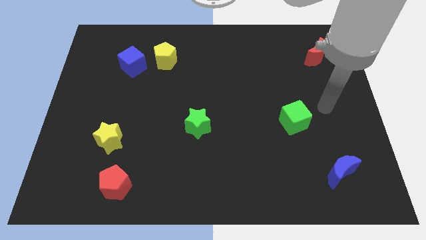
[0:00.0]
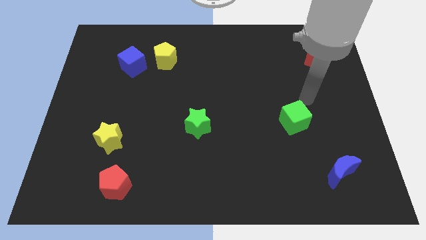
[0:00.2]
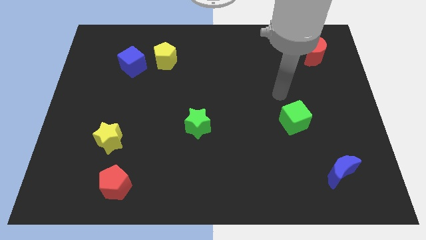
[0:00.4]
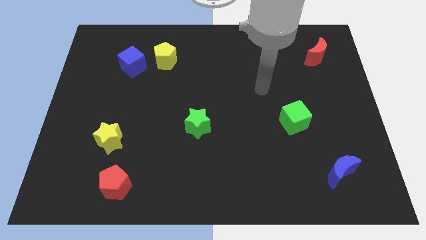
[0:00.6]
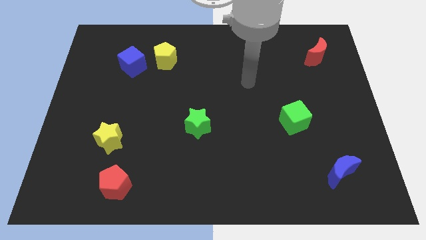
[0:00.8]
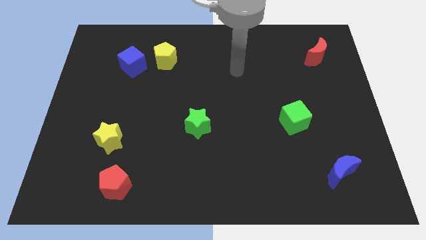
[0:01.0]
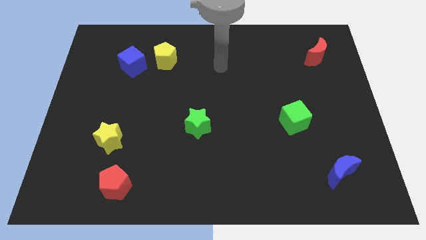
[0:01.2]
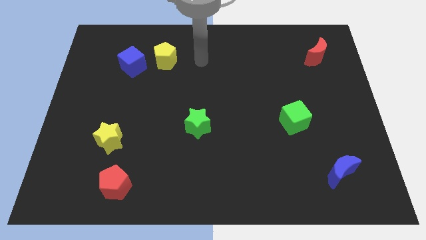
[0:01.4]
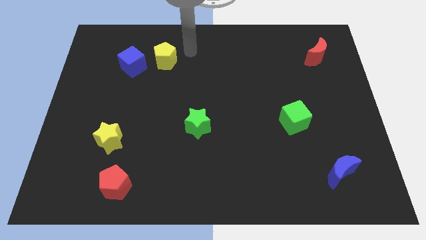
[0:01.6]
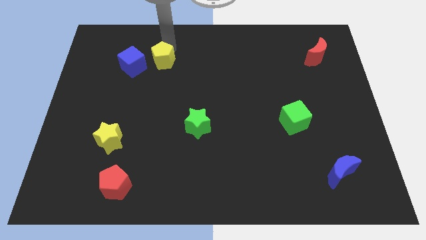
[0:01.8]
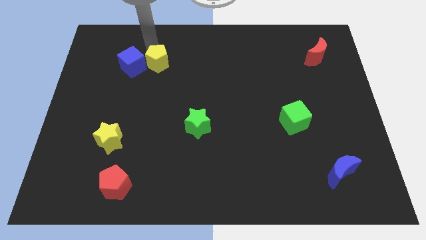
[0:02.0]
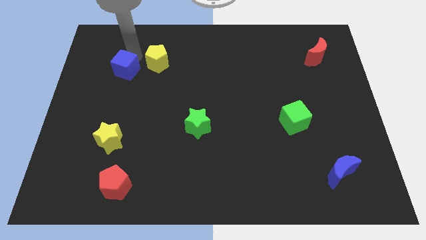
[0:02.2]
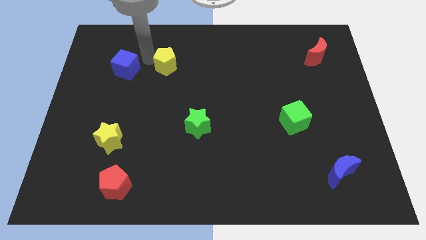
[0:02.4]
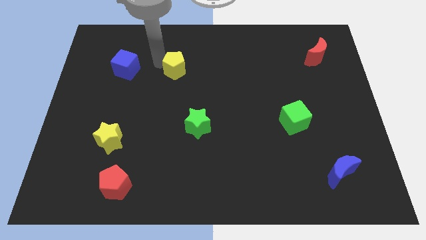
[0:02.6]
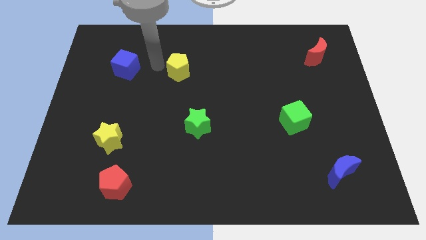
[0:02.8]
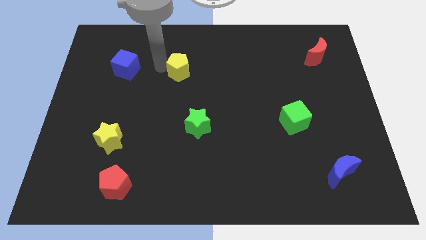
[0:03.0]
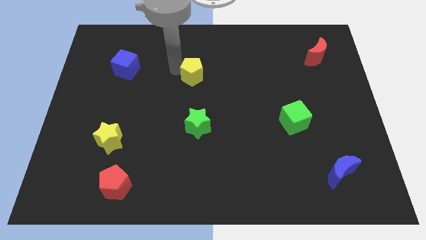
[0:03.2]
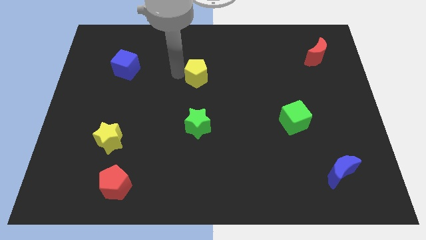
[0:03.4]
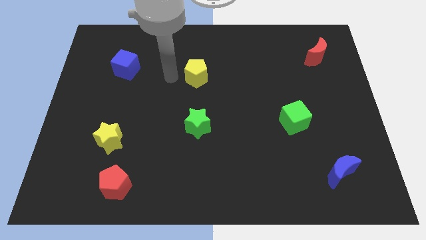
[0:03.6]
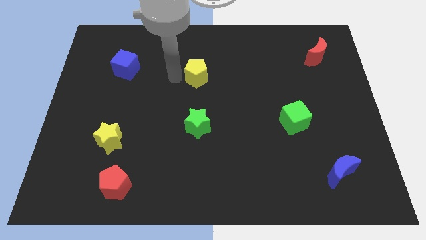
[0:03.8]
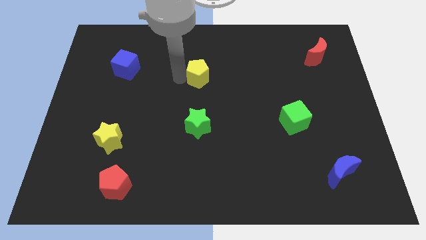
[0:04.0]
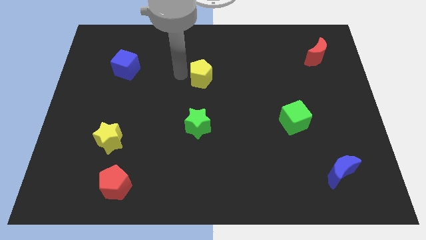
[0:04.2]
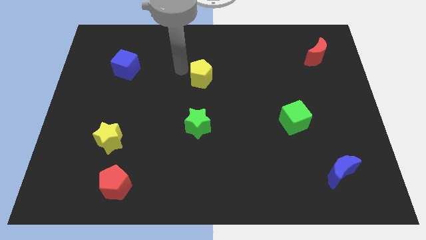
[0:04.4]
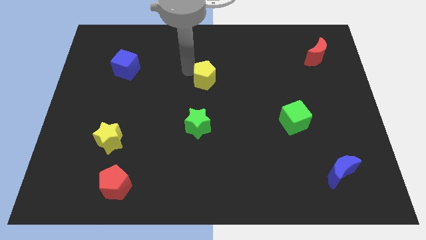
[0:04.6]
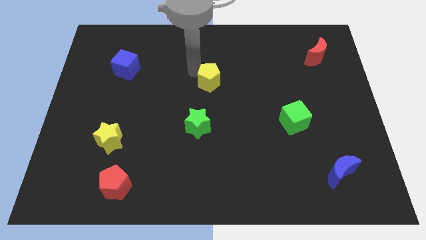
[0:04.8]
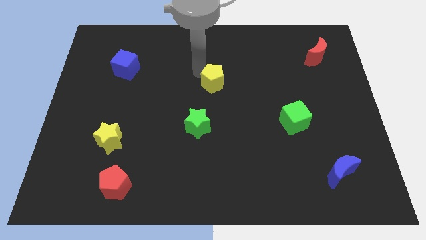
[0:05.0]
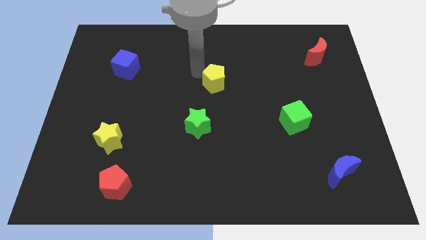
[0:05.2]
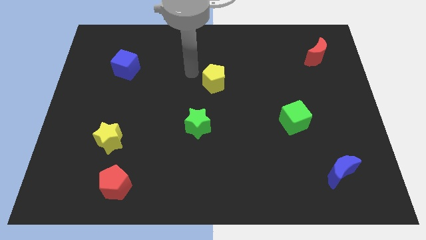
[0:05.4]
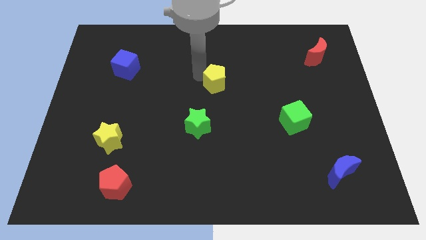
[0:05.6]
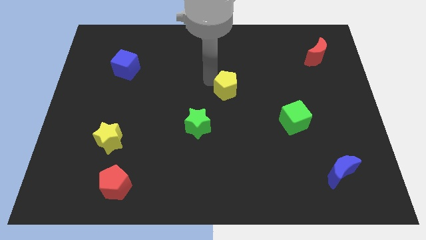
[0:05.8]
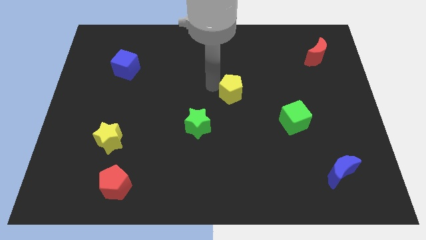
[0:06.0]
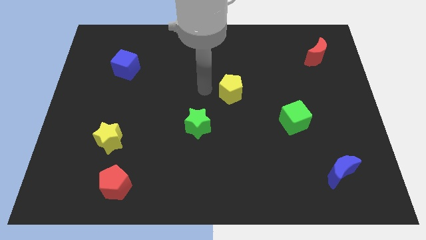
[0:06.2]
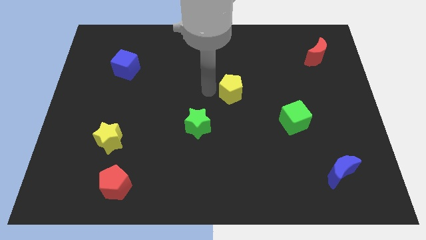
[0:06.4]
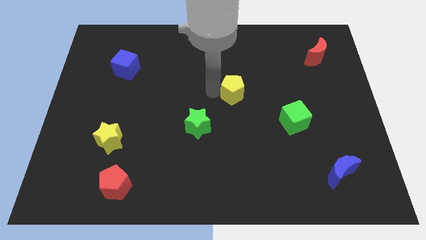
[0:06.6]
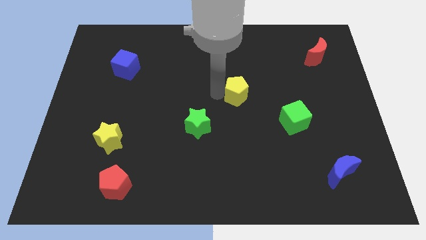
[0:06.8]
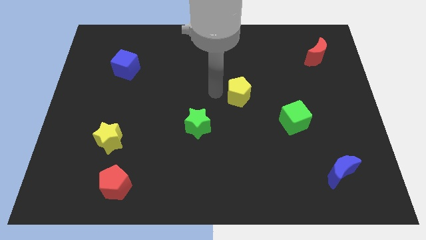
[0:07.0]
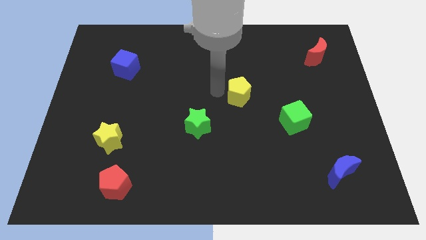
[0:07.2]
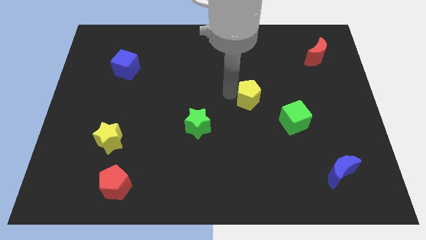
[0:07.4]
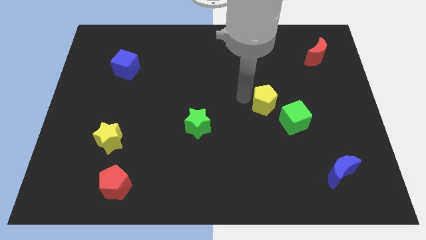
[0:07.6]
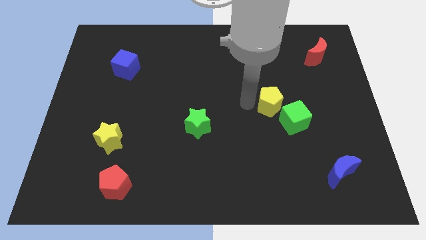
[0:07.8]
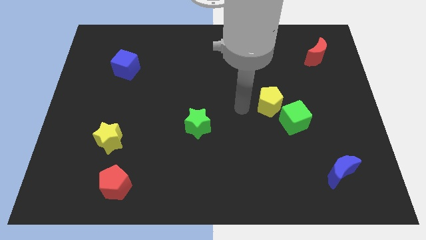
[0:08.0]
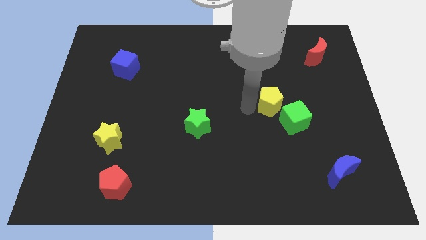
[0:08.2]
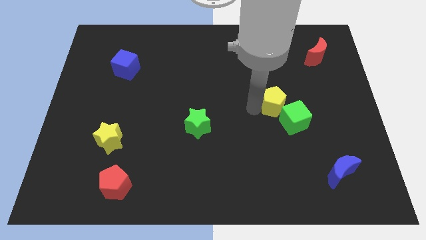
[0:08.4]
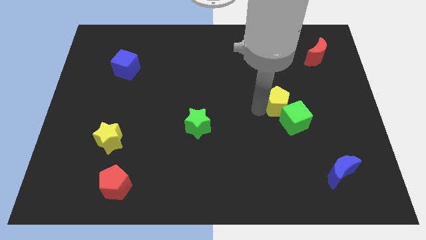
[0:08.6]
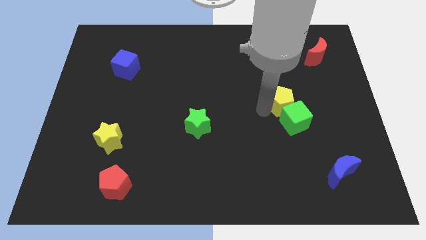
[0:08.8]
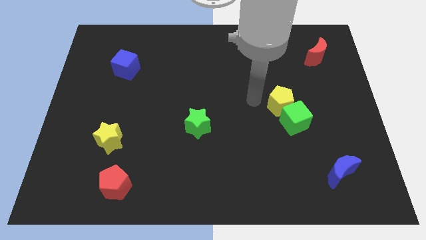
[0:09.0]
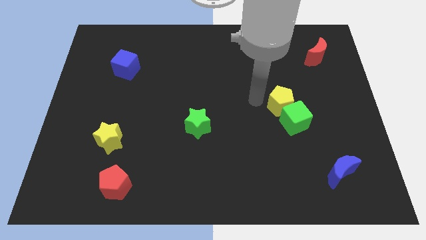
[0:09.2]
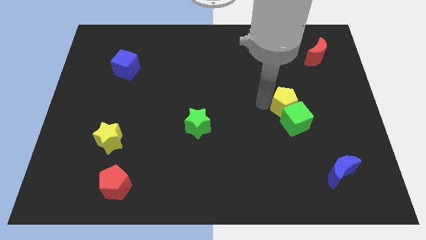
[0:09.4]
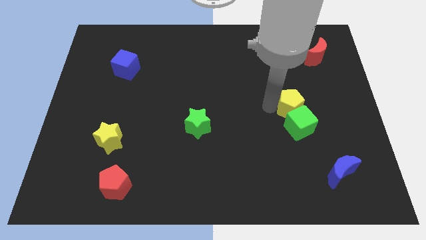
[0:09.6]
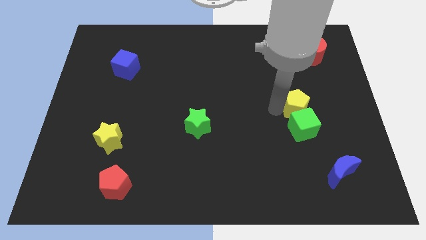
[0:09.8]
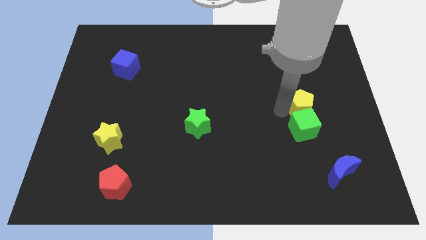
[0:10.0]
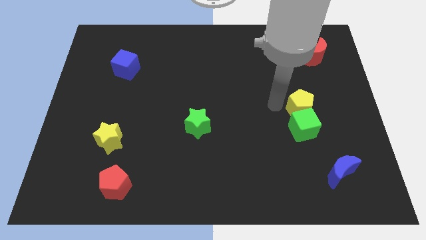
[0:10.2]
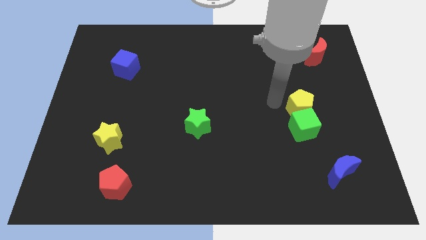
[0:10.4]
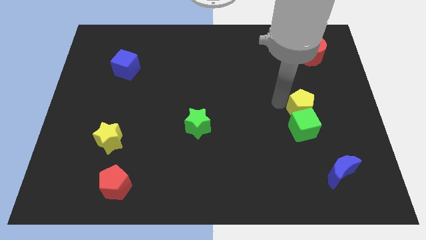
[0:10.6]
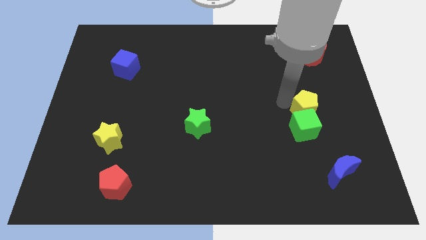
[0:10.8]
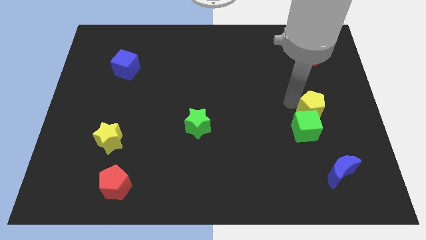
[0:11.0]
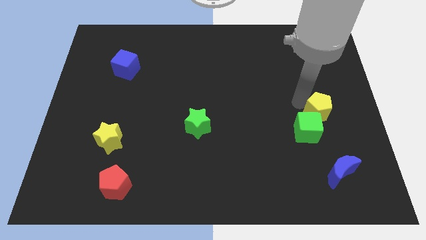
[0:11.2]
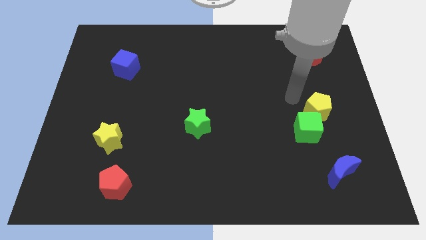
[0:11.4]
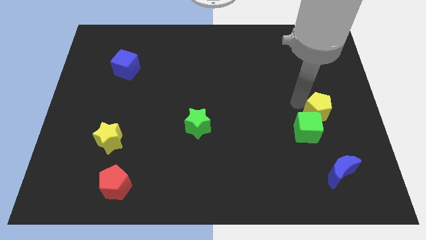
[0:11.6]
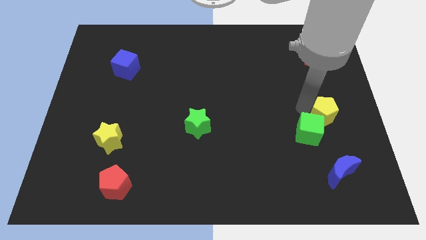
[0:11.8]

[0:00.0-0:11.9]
move the yellow pentagon to the right side of the green cube

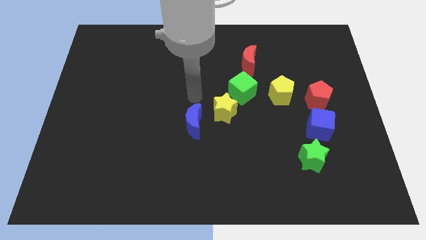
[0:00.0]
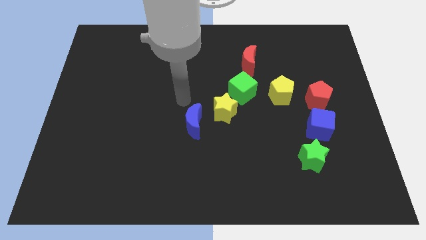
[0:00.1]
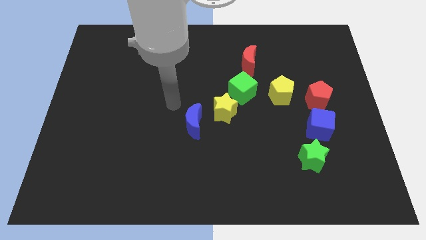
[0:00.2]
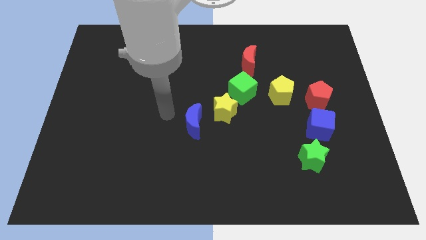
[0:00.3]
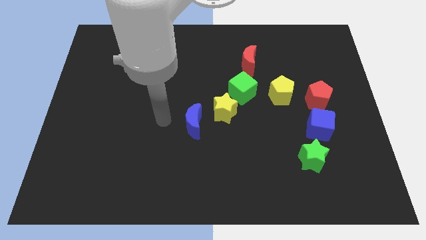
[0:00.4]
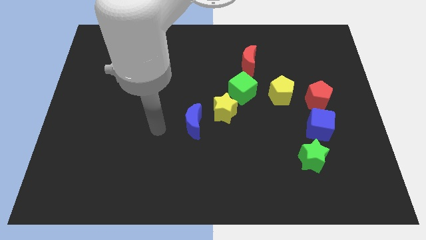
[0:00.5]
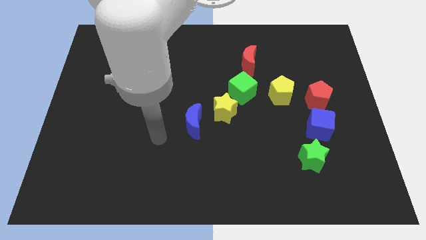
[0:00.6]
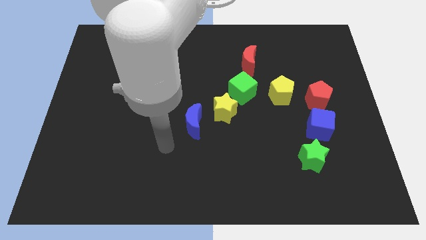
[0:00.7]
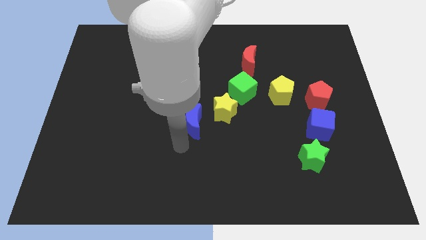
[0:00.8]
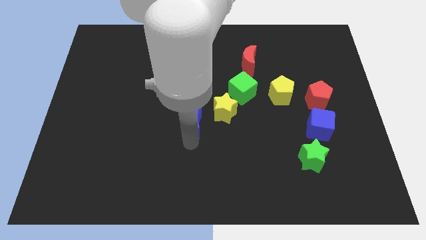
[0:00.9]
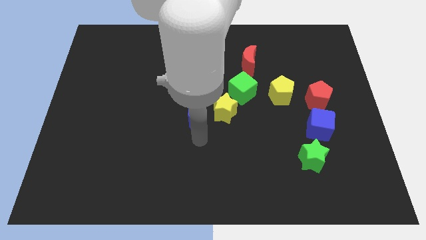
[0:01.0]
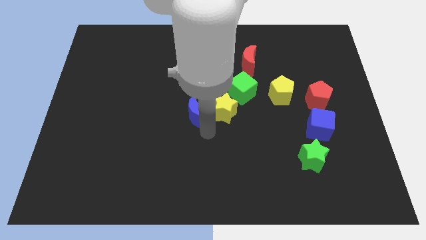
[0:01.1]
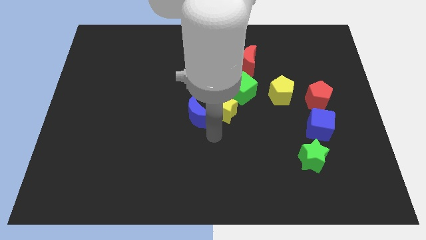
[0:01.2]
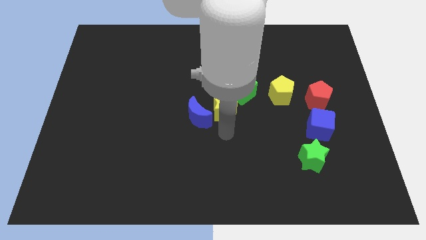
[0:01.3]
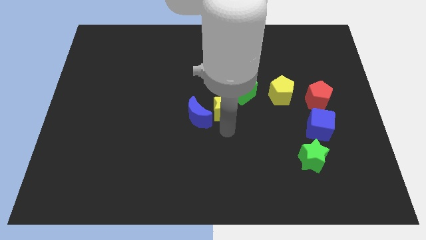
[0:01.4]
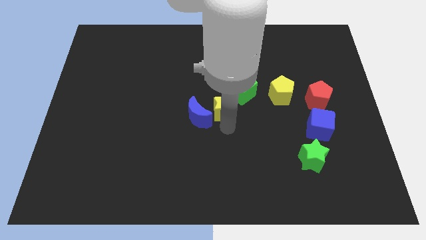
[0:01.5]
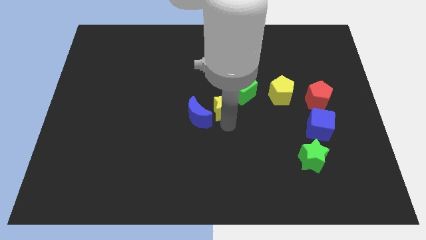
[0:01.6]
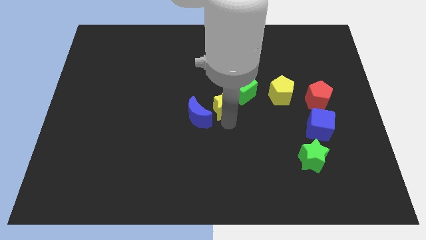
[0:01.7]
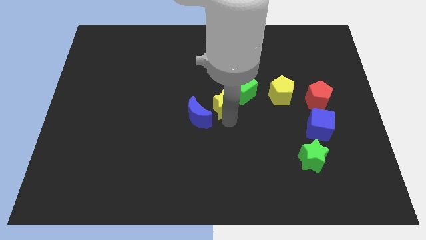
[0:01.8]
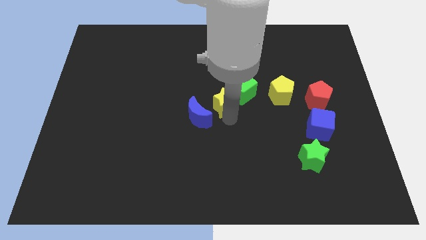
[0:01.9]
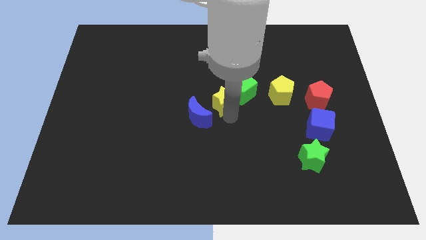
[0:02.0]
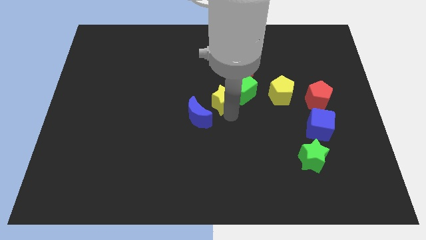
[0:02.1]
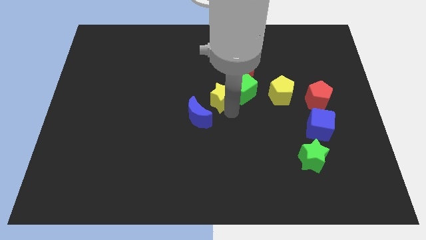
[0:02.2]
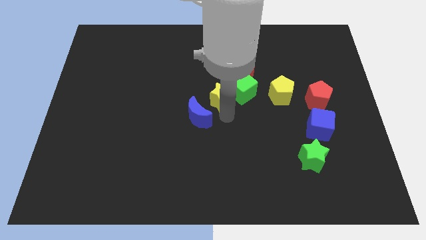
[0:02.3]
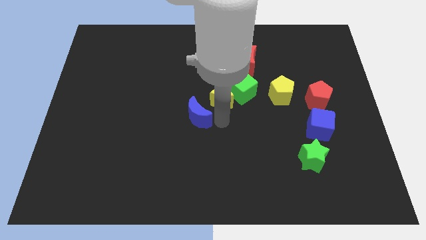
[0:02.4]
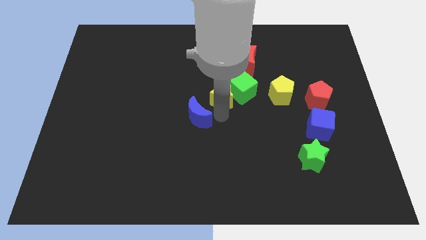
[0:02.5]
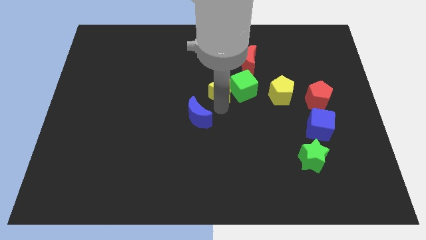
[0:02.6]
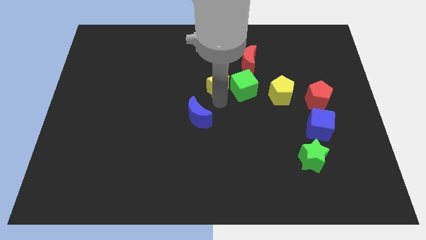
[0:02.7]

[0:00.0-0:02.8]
push the yellow star to the top left of the green cube
